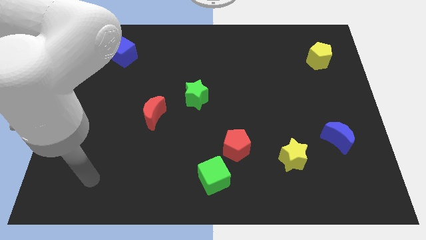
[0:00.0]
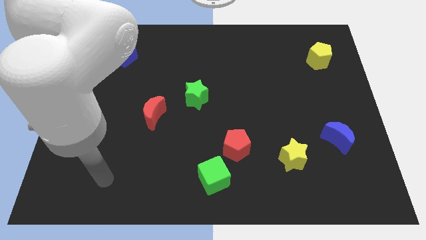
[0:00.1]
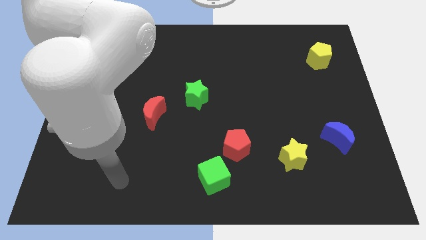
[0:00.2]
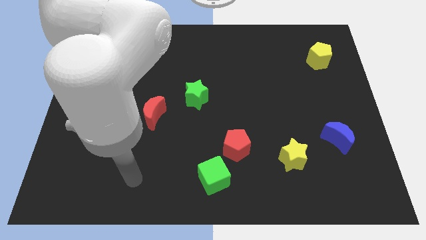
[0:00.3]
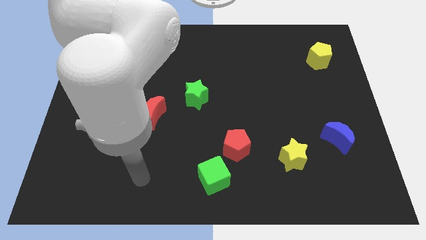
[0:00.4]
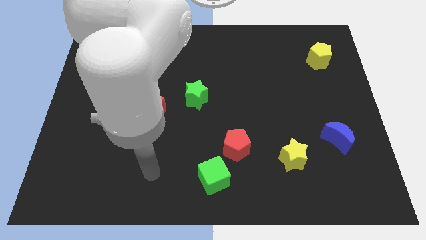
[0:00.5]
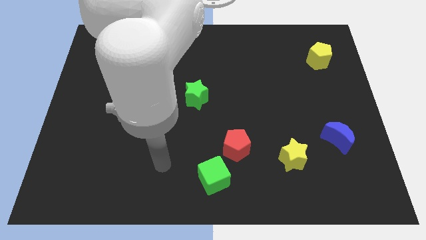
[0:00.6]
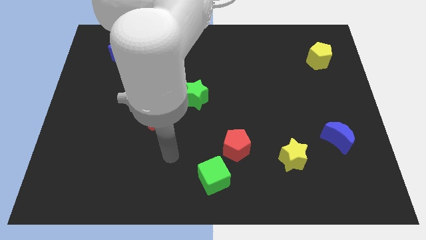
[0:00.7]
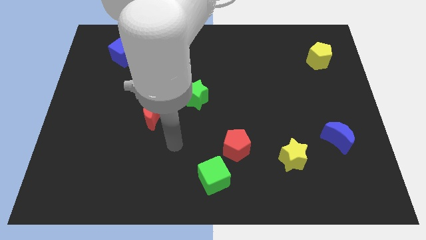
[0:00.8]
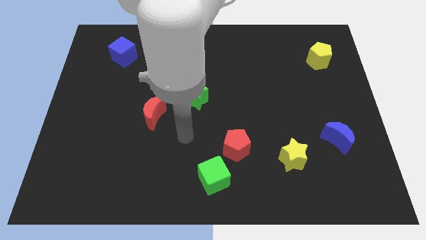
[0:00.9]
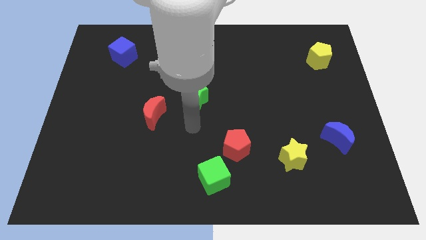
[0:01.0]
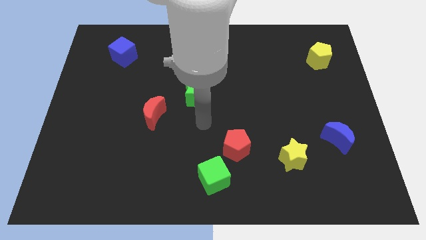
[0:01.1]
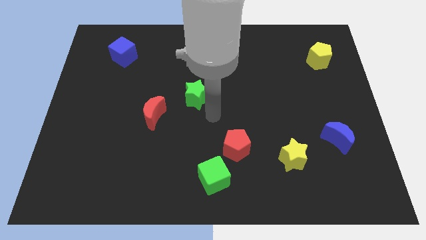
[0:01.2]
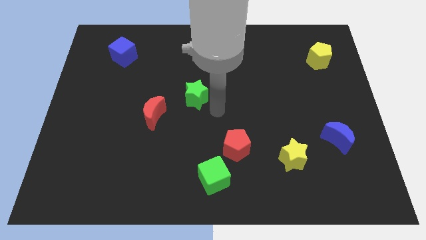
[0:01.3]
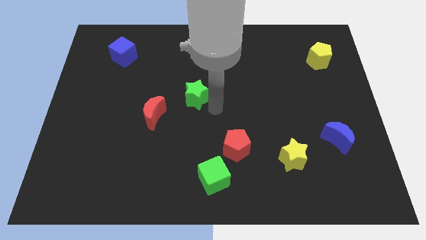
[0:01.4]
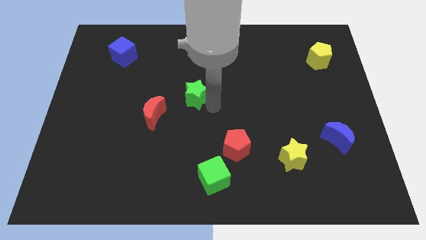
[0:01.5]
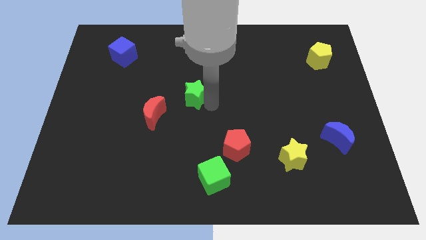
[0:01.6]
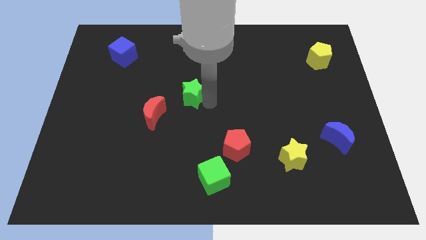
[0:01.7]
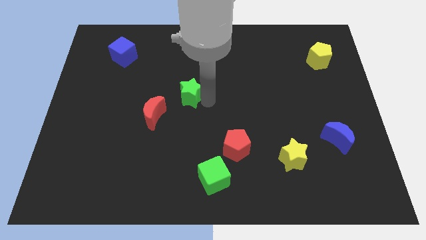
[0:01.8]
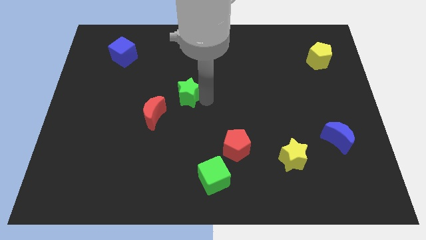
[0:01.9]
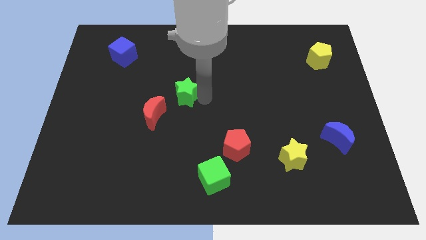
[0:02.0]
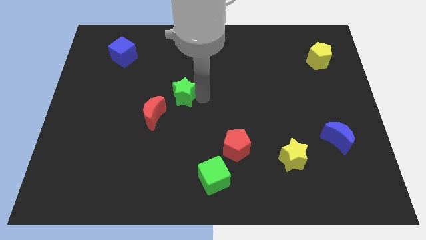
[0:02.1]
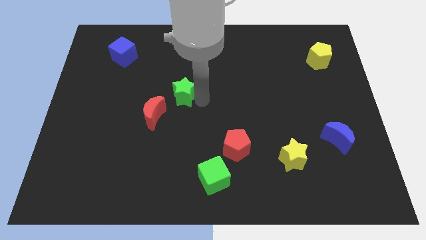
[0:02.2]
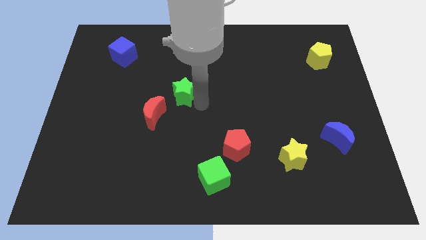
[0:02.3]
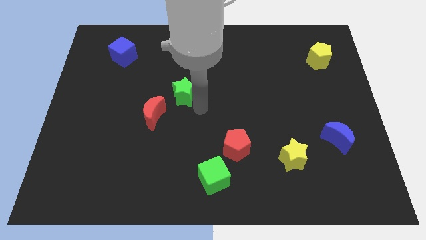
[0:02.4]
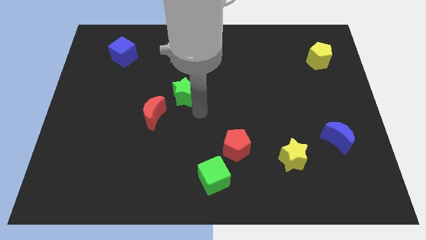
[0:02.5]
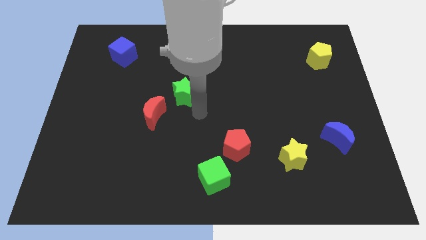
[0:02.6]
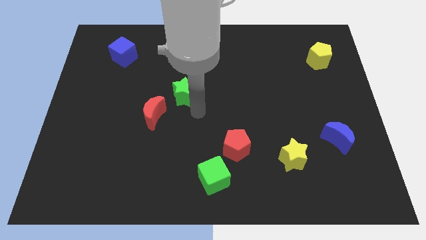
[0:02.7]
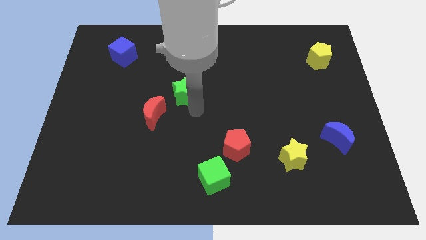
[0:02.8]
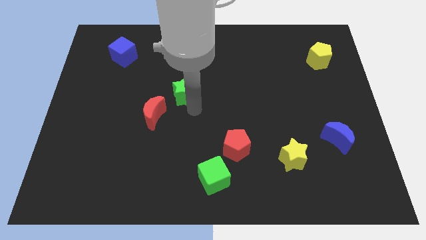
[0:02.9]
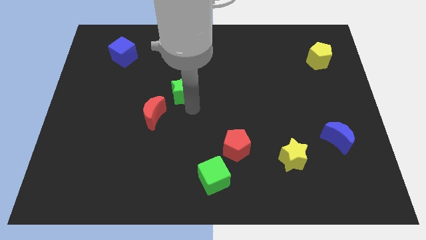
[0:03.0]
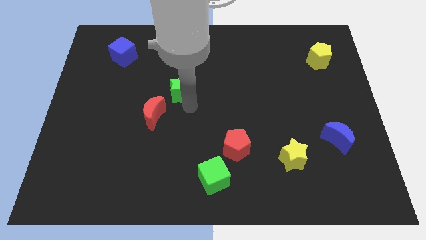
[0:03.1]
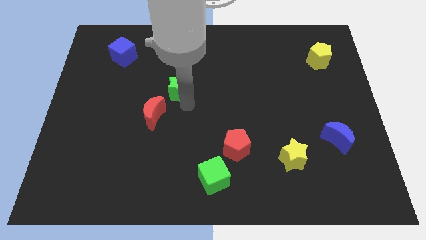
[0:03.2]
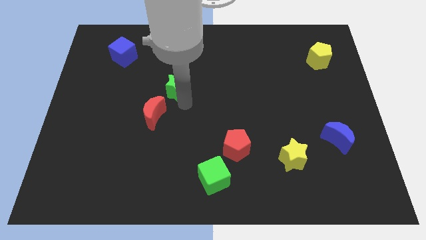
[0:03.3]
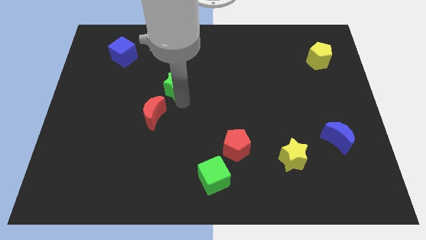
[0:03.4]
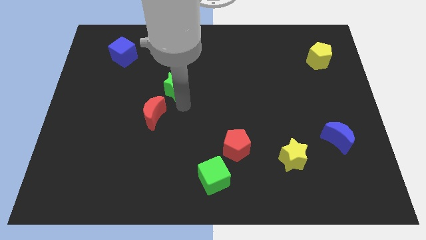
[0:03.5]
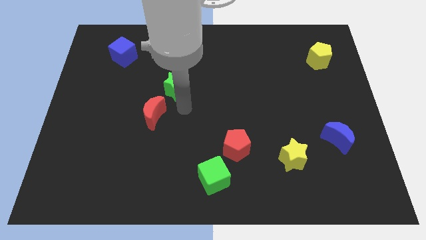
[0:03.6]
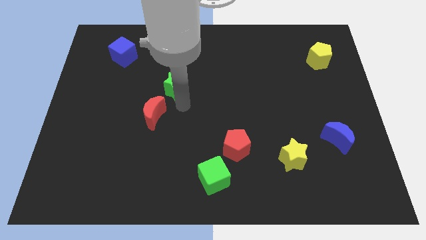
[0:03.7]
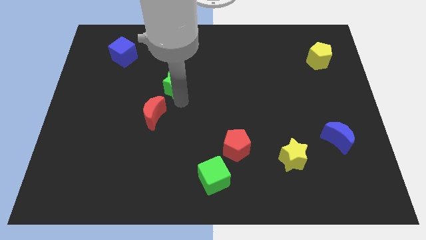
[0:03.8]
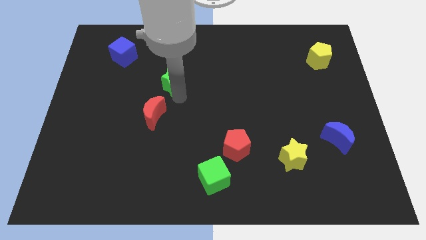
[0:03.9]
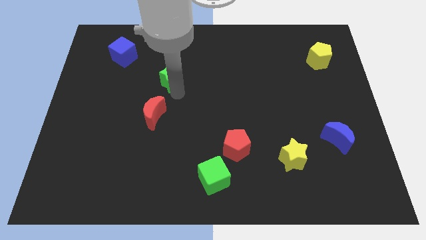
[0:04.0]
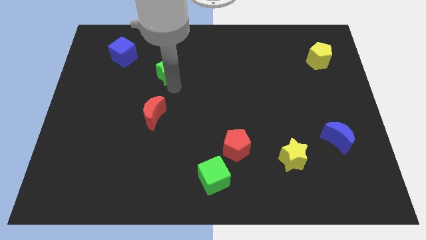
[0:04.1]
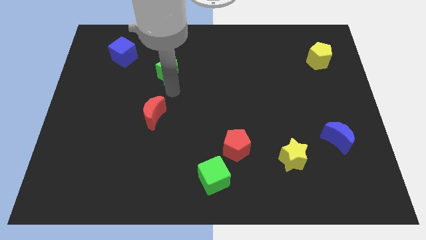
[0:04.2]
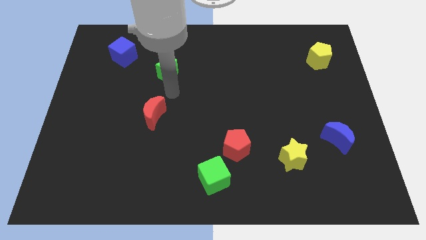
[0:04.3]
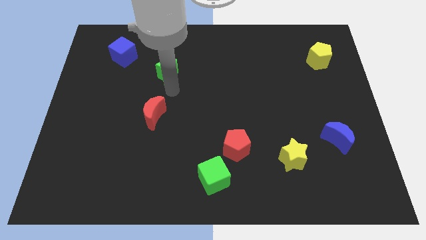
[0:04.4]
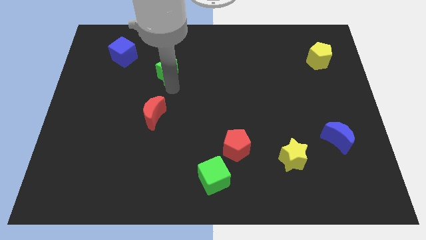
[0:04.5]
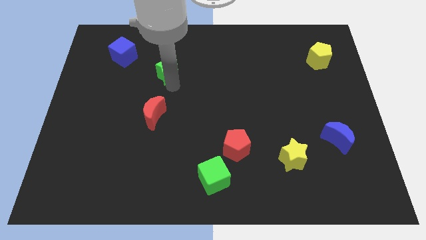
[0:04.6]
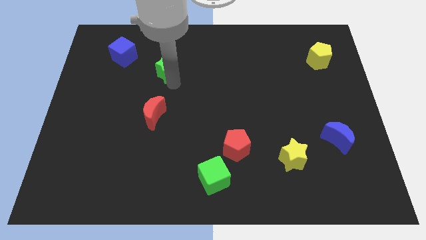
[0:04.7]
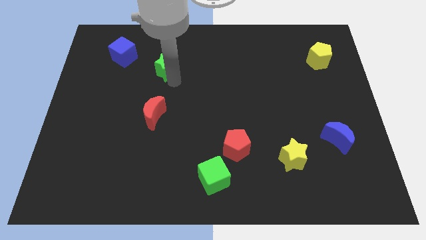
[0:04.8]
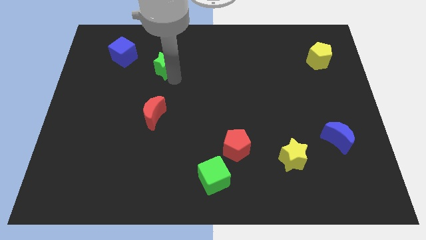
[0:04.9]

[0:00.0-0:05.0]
put the green star right of the blue cube

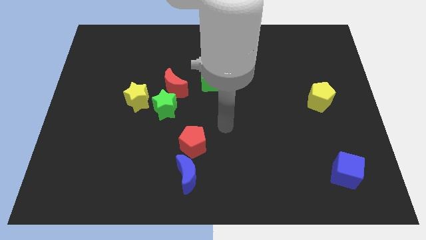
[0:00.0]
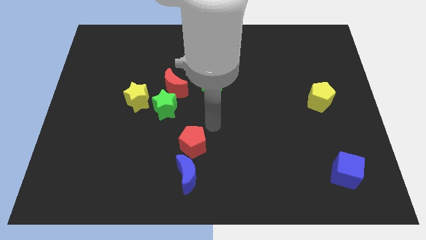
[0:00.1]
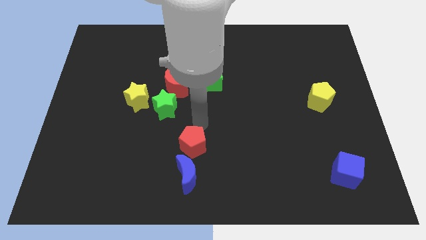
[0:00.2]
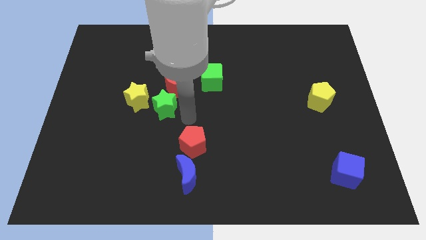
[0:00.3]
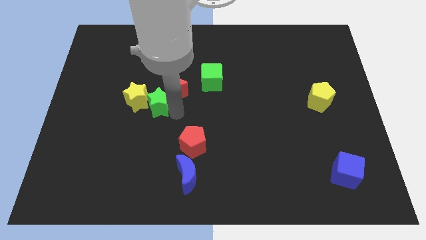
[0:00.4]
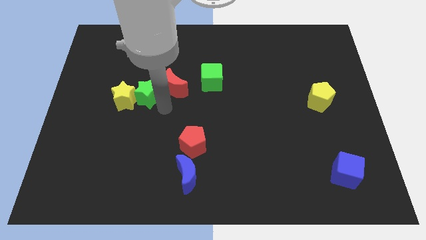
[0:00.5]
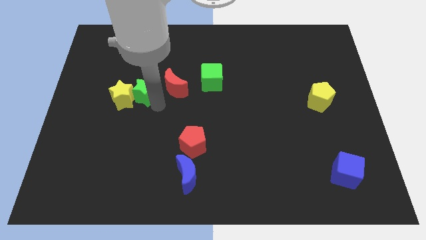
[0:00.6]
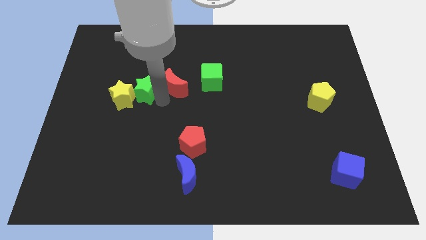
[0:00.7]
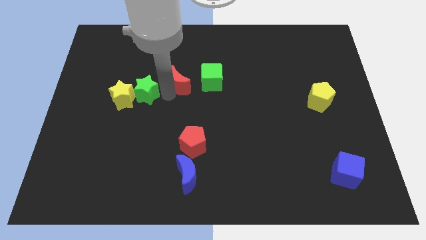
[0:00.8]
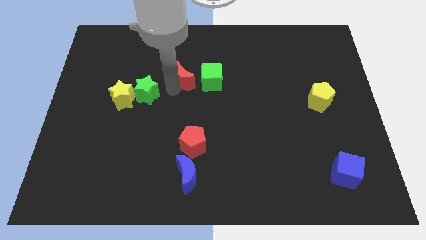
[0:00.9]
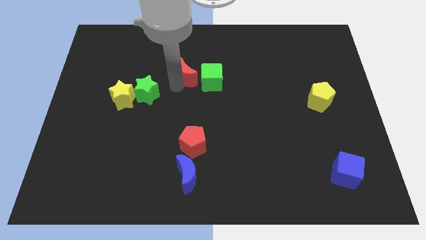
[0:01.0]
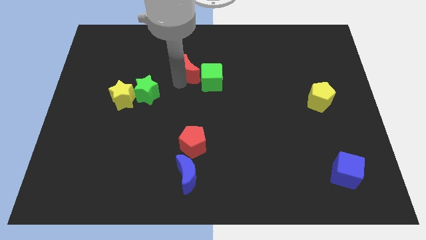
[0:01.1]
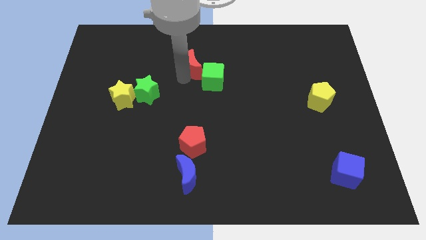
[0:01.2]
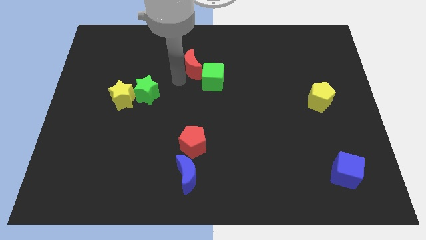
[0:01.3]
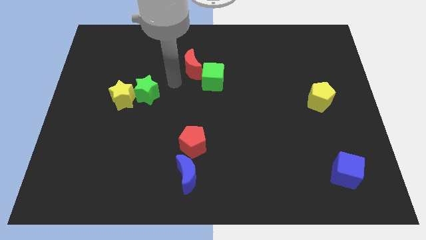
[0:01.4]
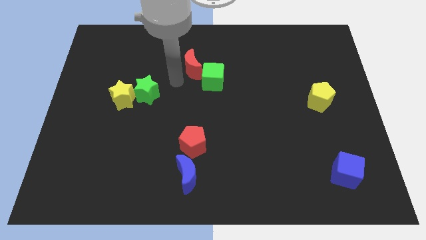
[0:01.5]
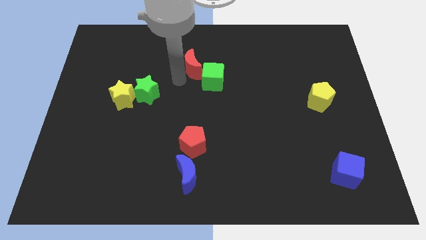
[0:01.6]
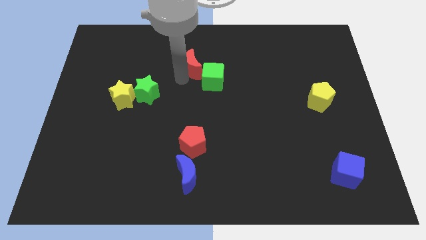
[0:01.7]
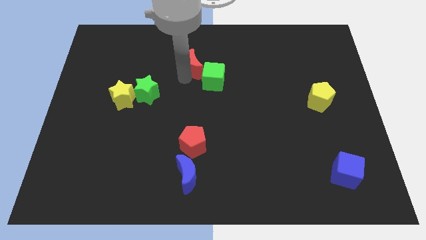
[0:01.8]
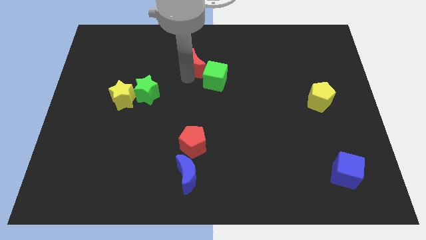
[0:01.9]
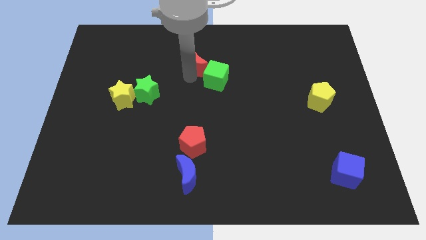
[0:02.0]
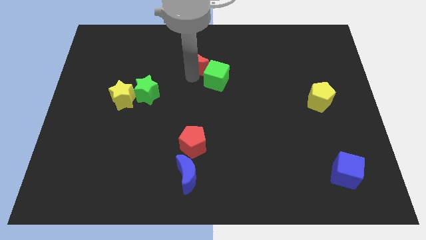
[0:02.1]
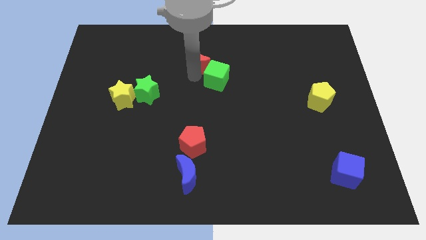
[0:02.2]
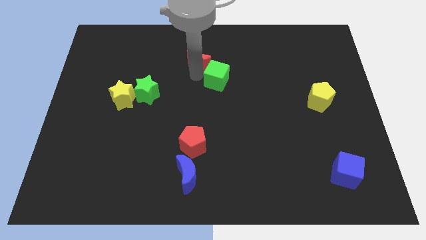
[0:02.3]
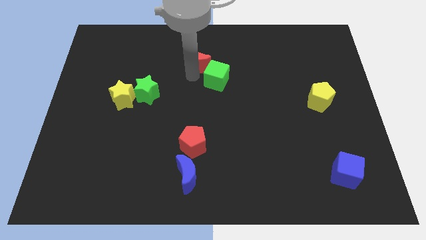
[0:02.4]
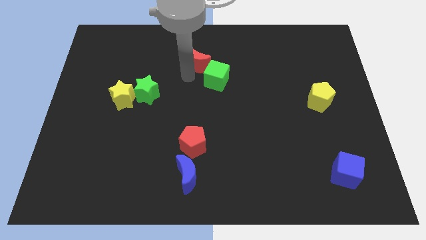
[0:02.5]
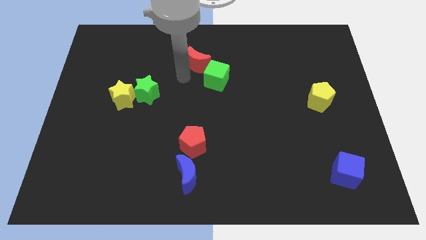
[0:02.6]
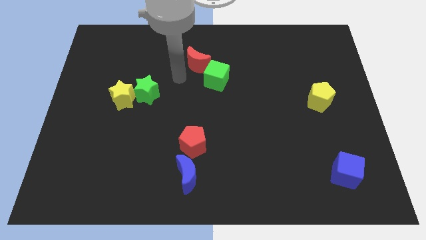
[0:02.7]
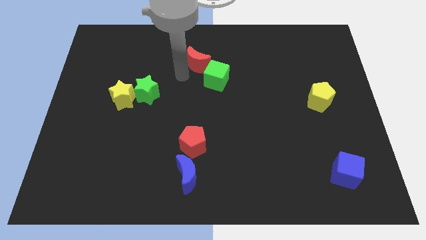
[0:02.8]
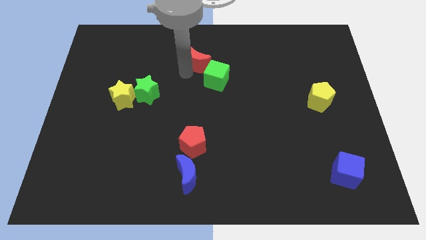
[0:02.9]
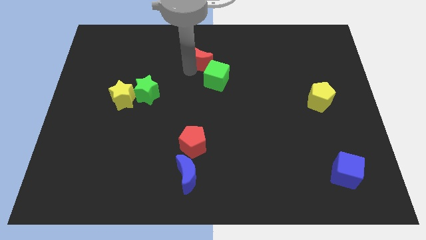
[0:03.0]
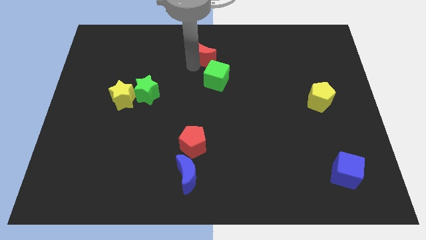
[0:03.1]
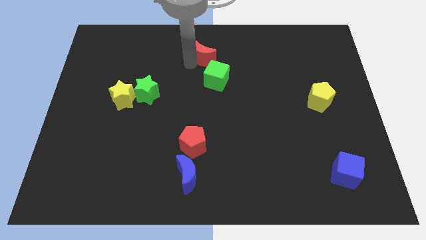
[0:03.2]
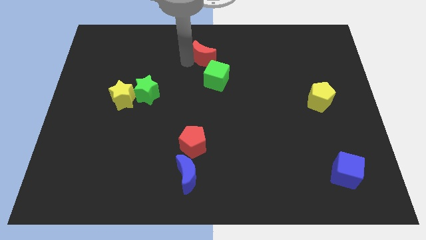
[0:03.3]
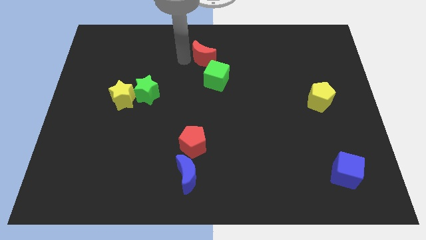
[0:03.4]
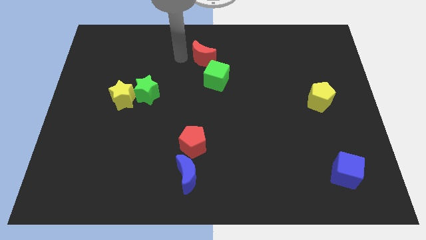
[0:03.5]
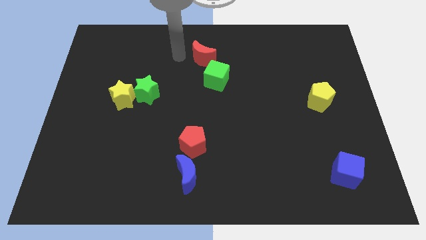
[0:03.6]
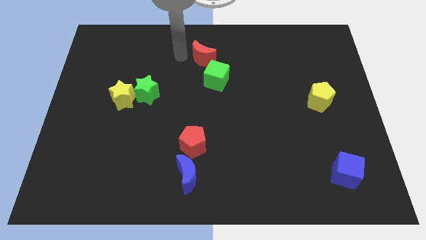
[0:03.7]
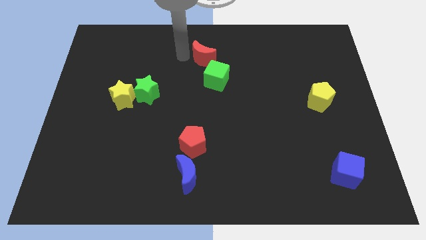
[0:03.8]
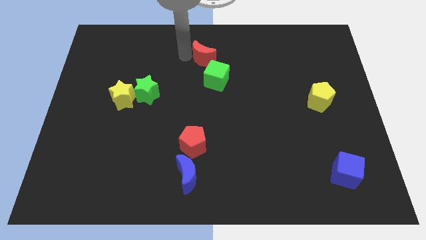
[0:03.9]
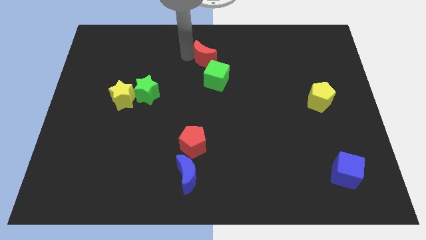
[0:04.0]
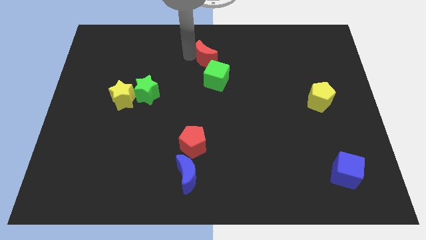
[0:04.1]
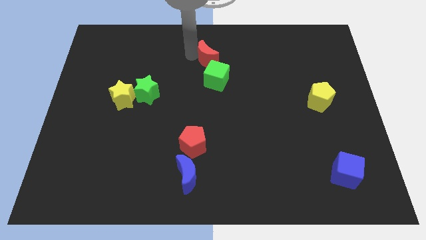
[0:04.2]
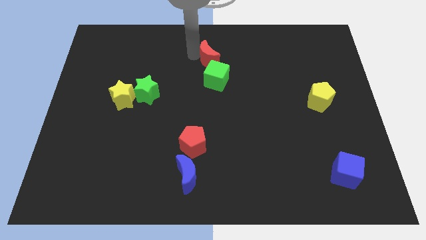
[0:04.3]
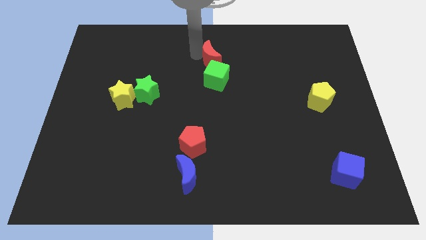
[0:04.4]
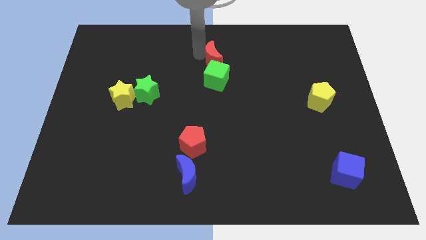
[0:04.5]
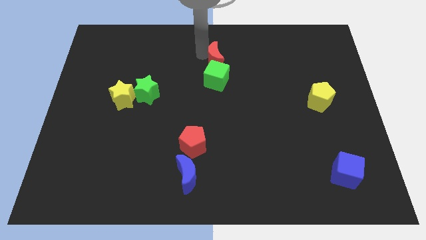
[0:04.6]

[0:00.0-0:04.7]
put the red moon to the top right side of the green cube
